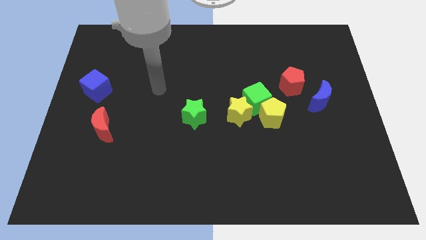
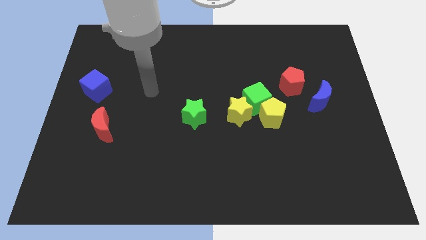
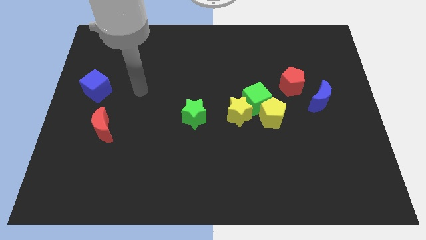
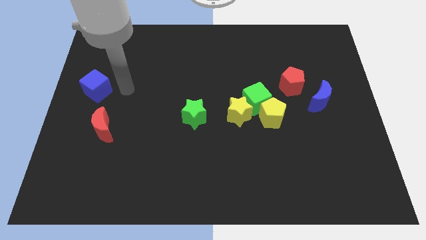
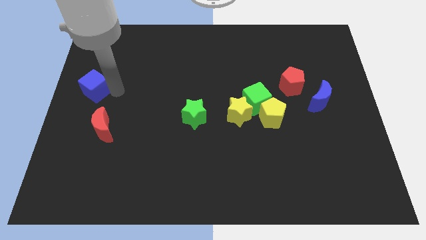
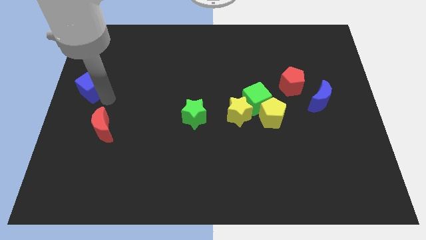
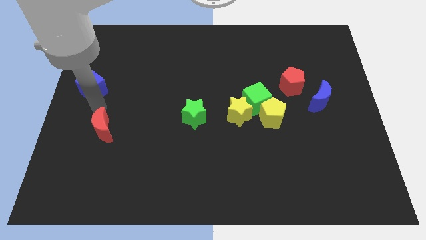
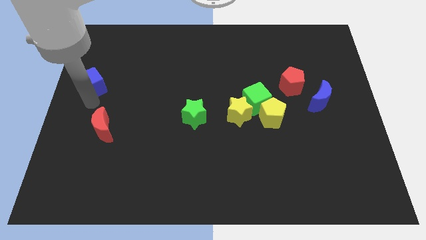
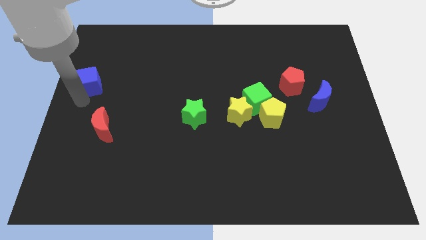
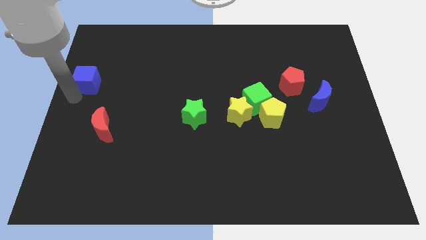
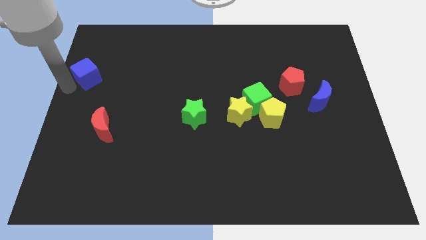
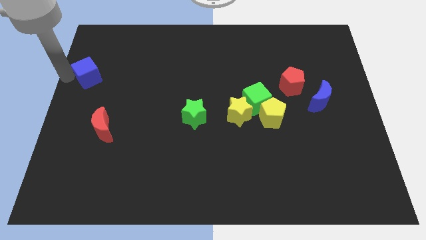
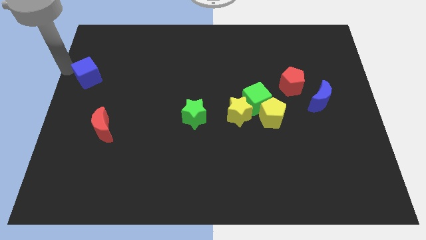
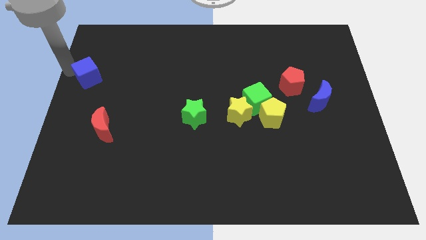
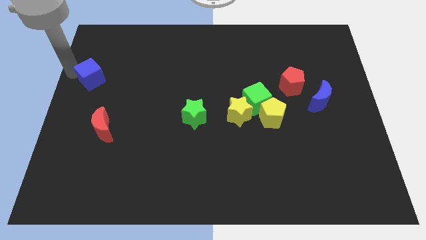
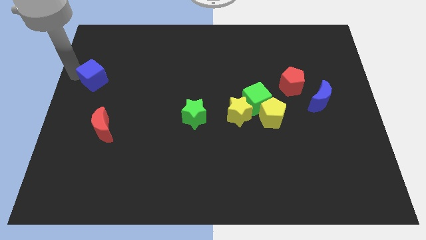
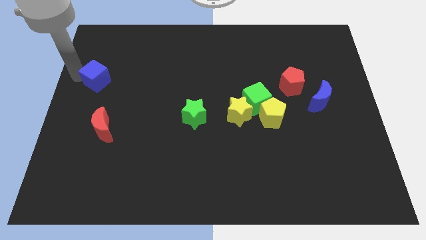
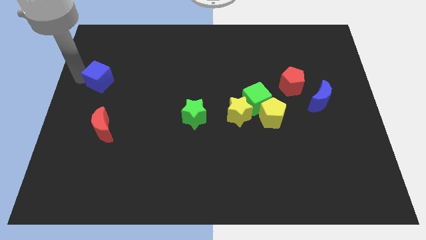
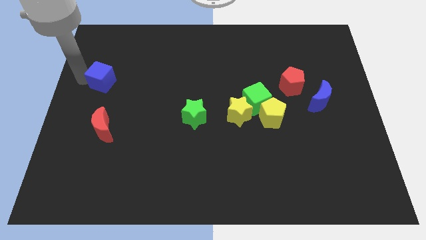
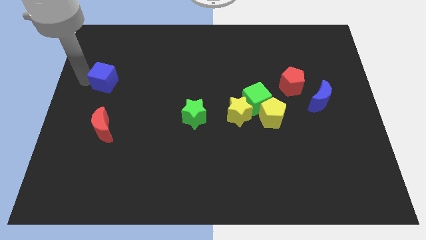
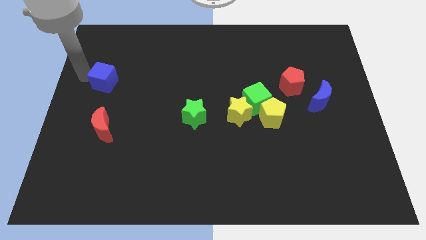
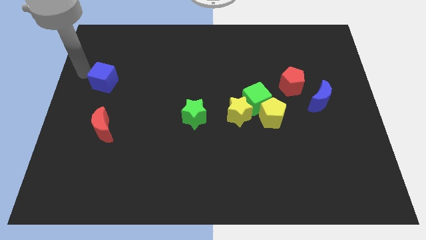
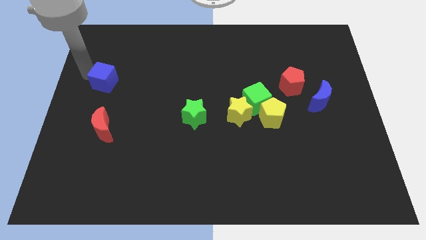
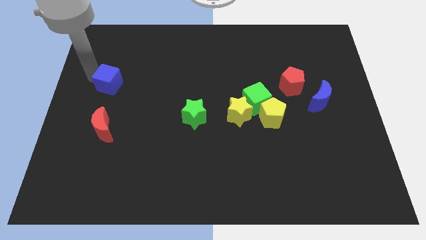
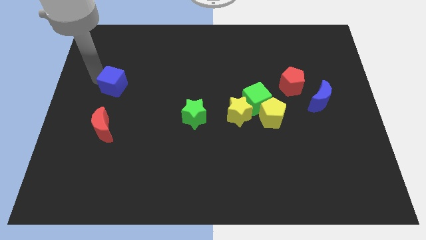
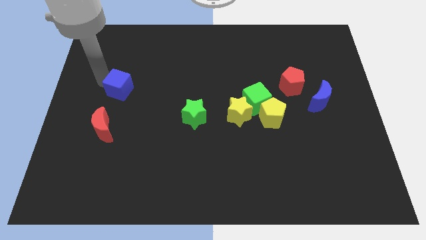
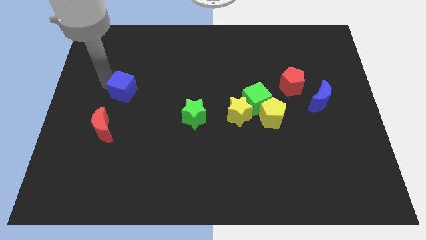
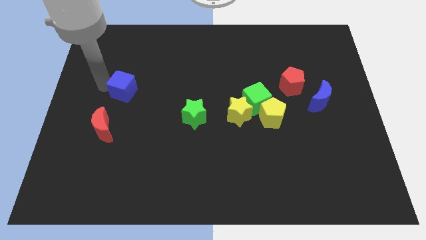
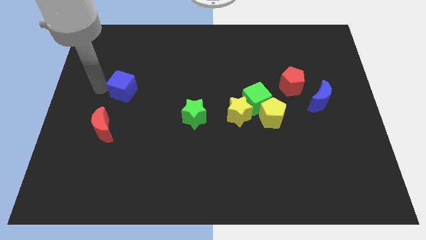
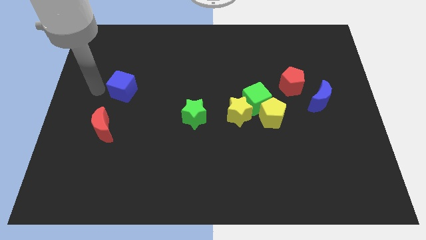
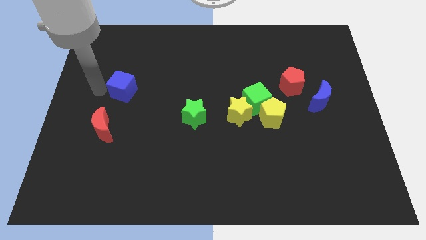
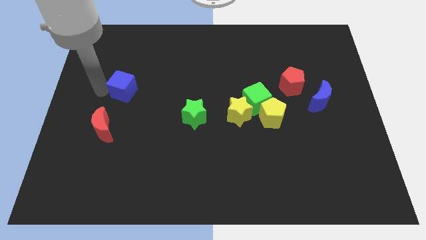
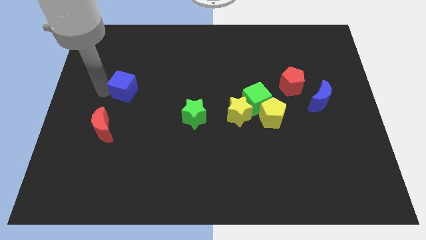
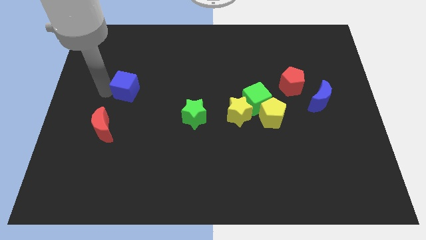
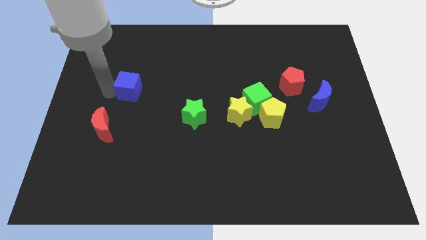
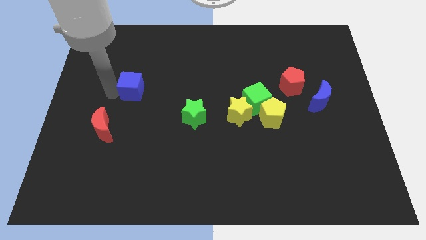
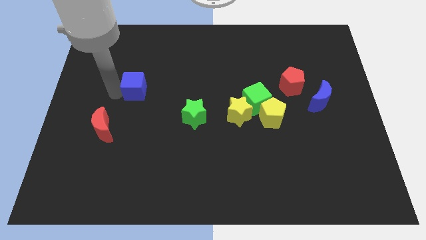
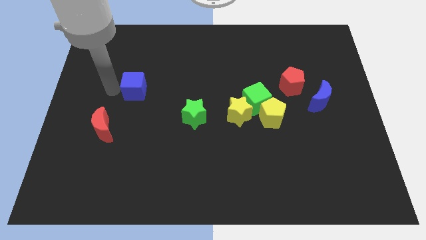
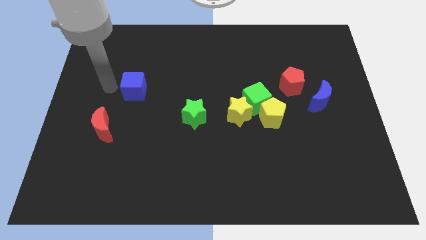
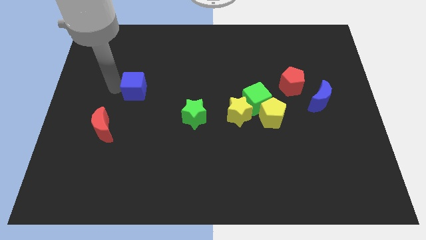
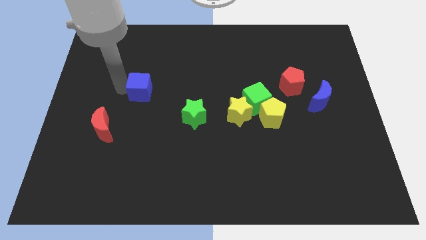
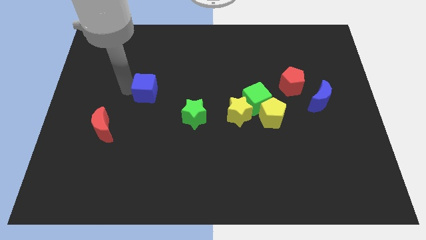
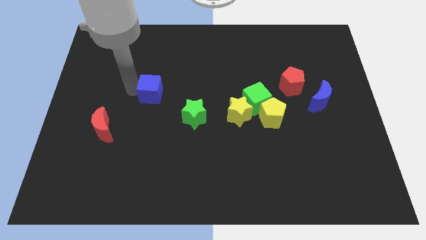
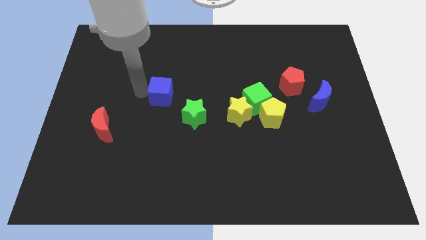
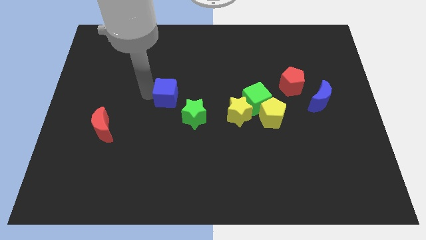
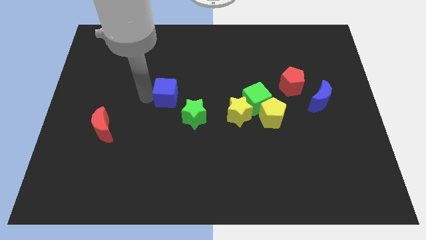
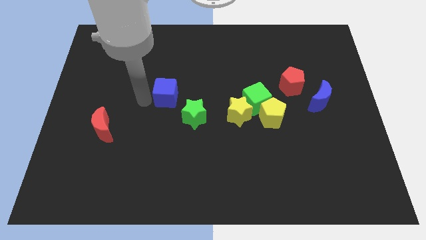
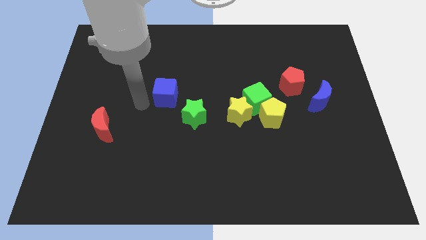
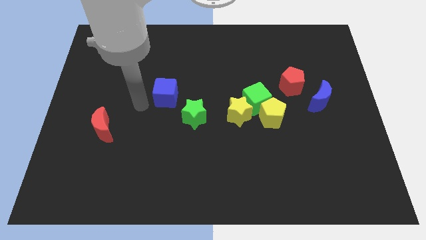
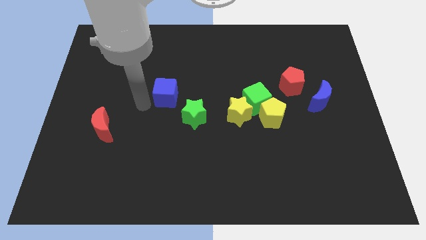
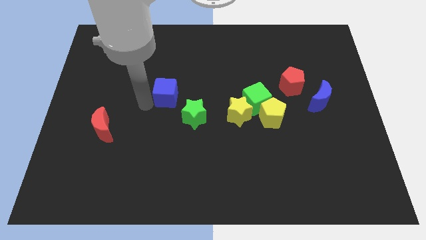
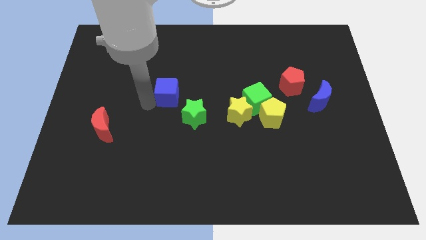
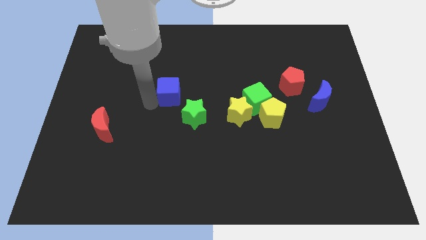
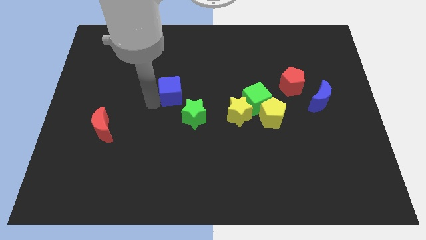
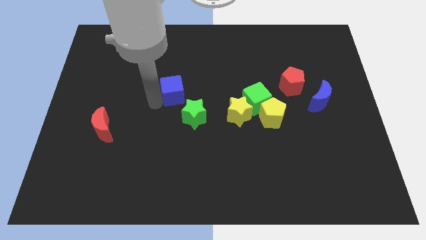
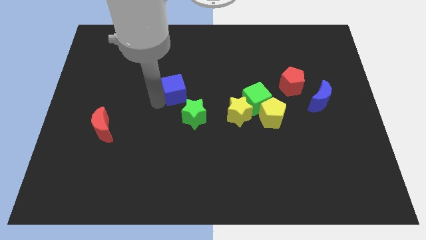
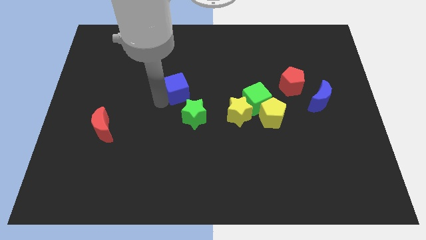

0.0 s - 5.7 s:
move the blue cube to the right

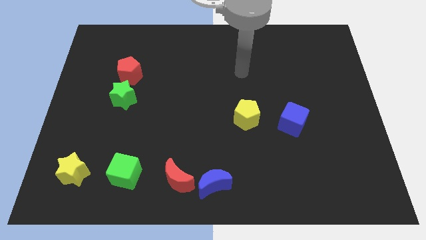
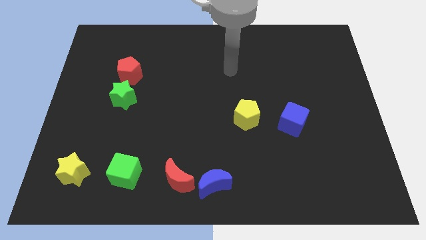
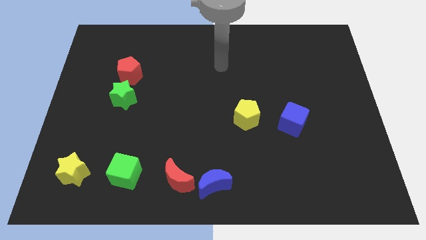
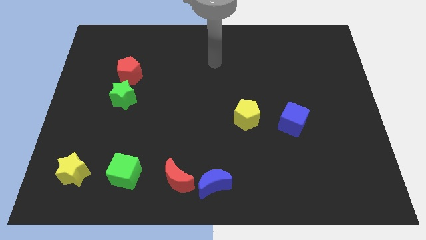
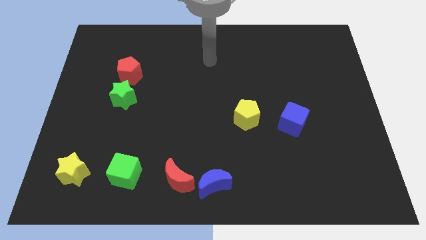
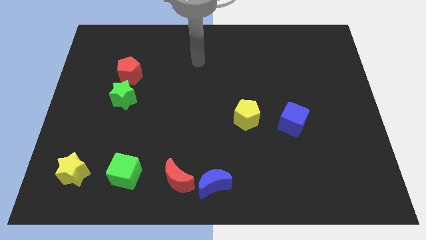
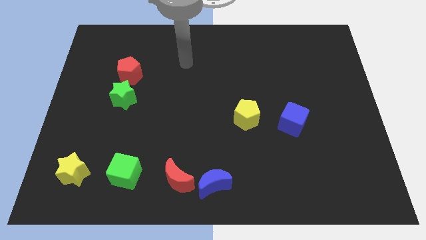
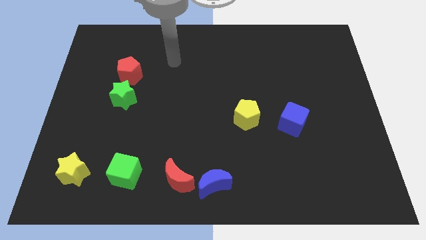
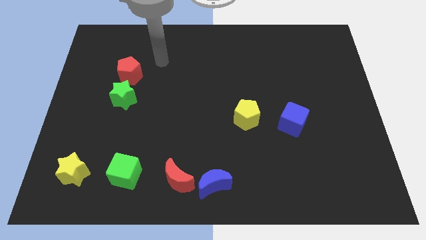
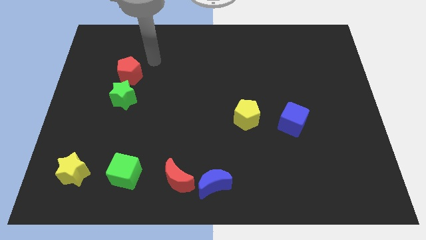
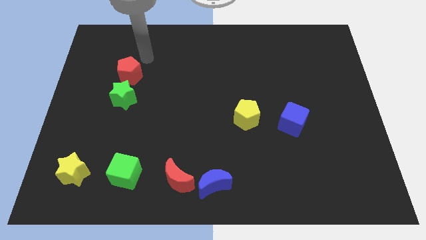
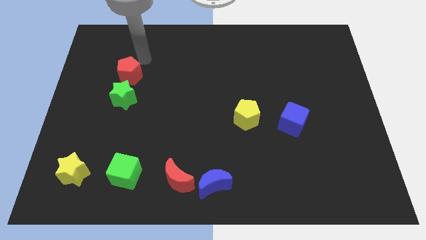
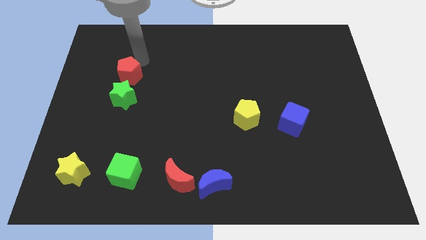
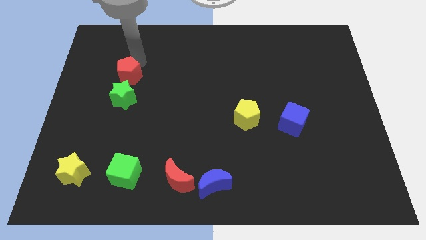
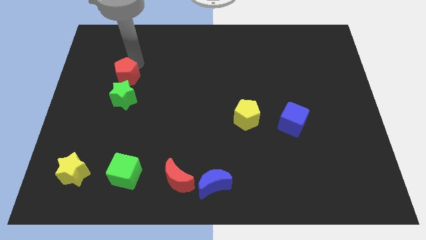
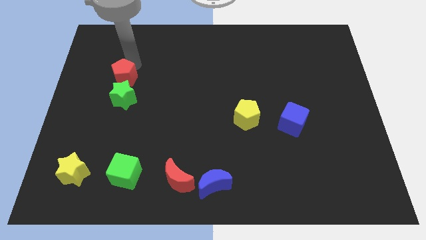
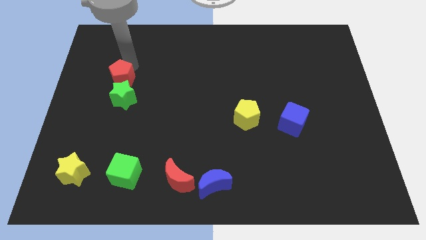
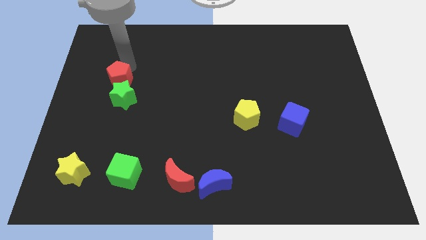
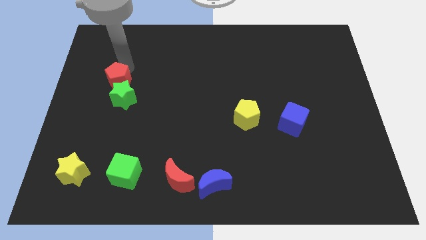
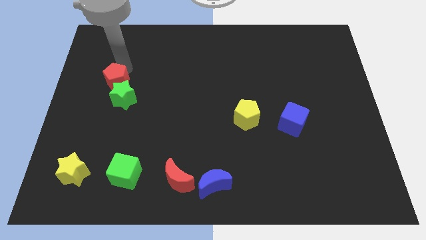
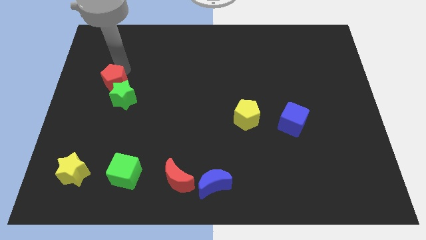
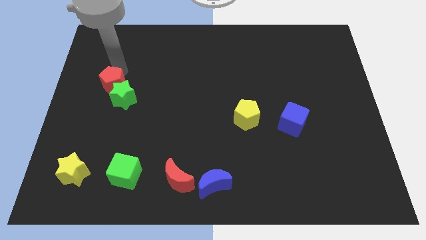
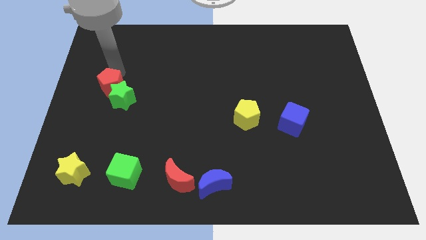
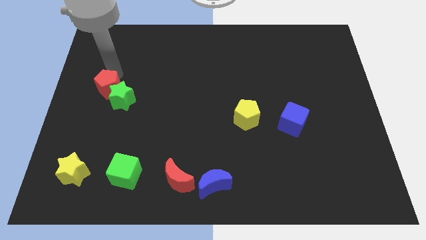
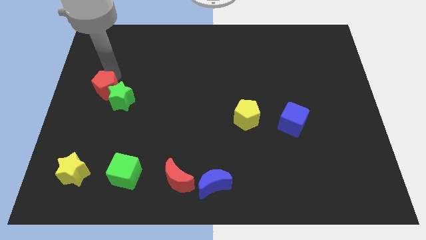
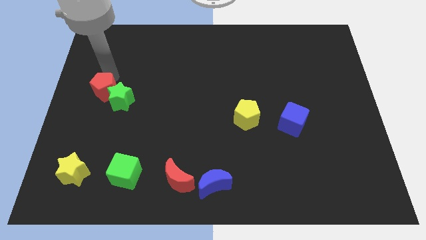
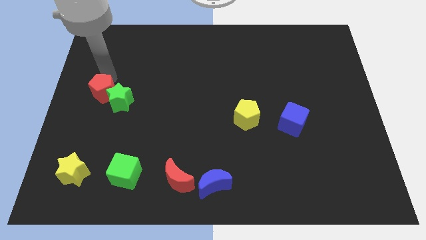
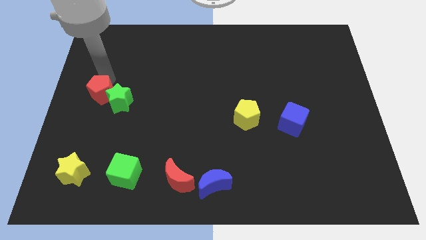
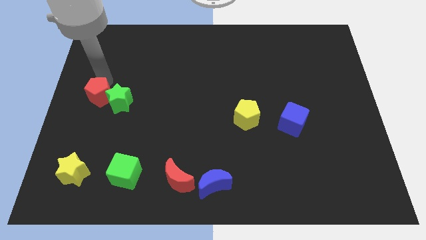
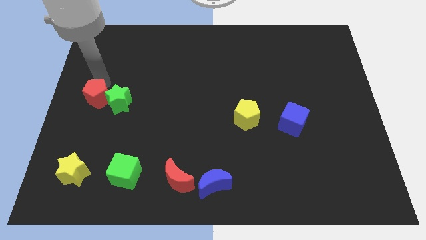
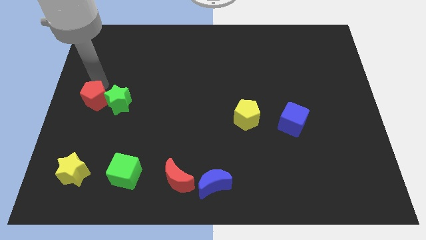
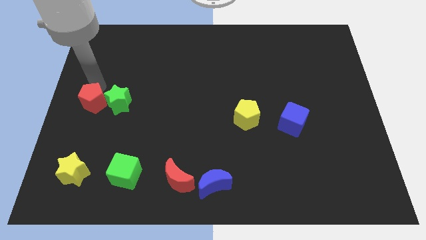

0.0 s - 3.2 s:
slightly slide the red pentagon downwards
